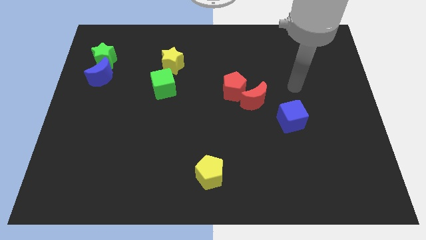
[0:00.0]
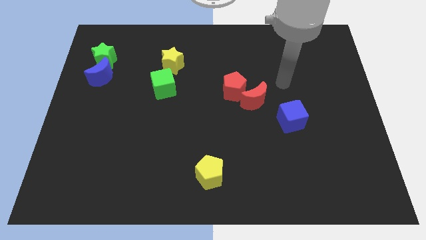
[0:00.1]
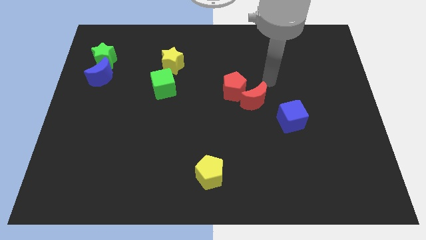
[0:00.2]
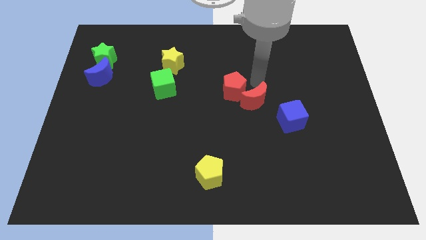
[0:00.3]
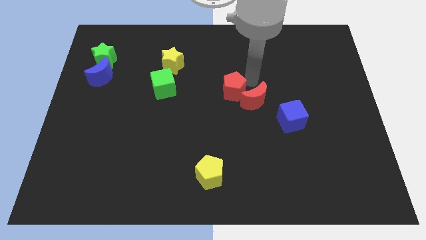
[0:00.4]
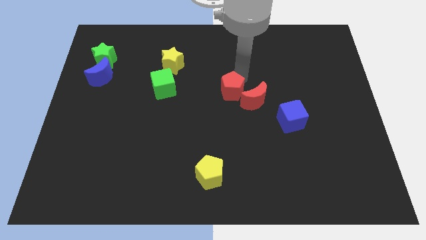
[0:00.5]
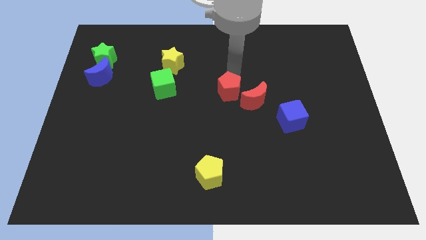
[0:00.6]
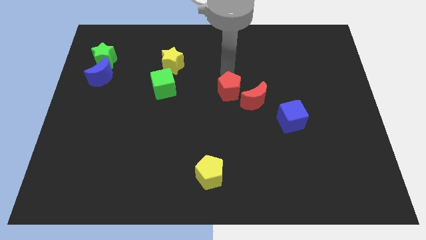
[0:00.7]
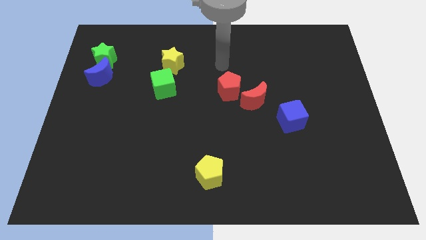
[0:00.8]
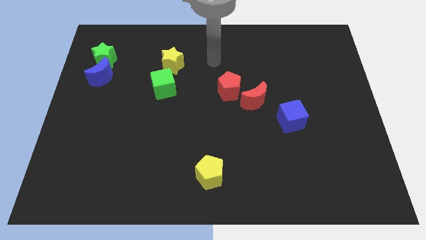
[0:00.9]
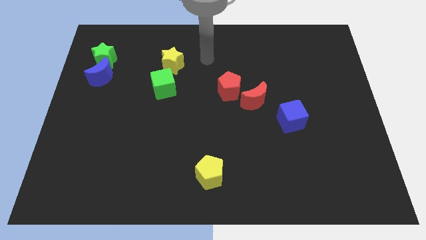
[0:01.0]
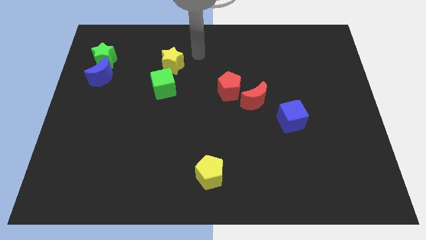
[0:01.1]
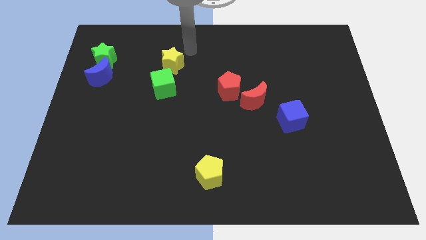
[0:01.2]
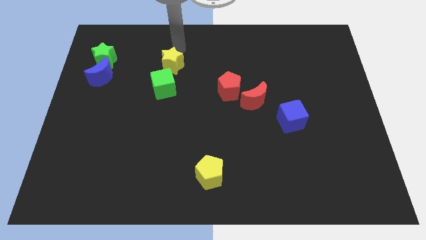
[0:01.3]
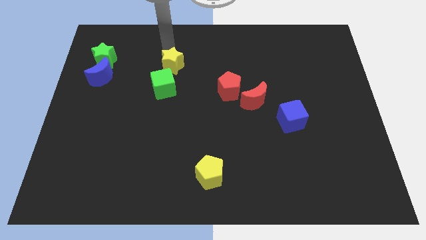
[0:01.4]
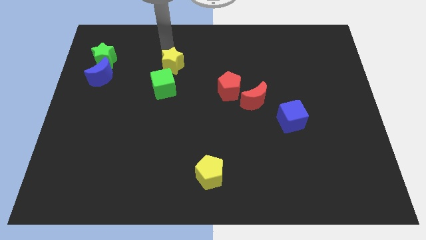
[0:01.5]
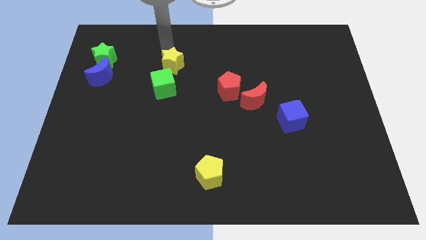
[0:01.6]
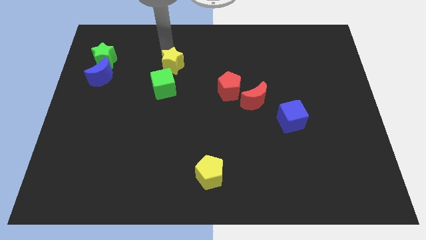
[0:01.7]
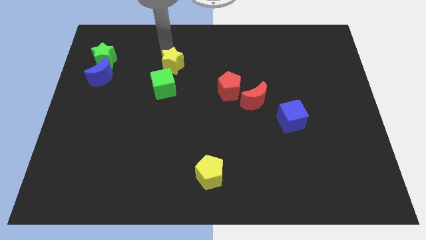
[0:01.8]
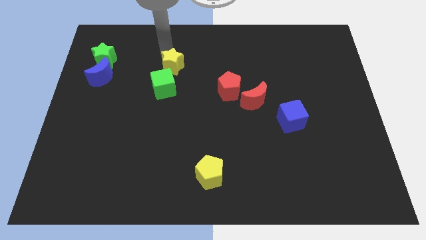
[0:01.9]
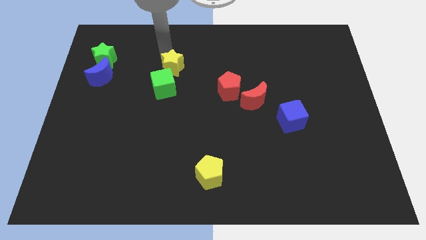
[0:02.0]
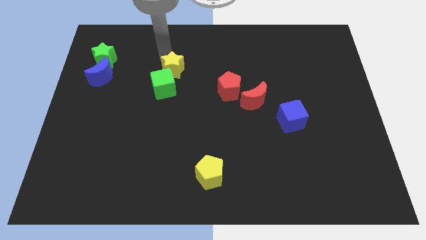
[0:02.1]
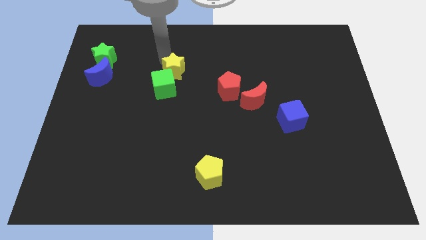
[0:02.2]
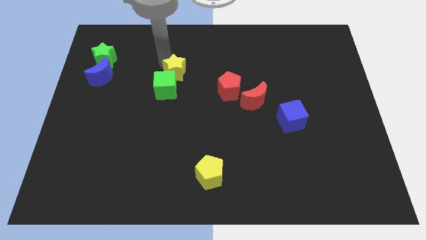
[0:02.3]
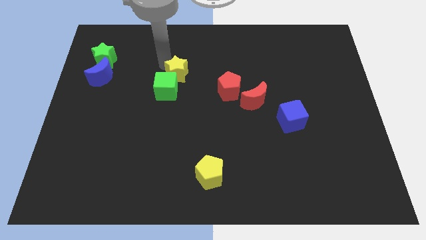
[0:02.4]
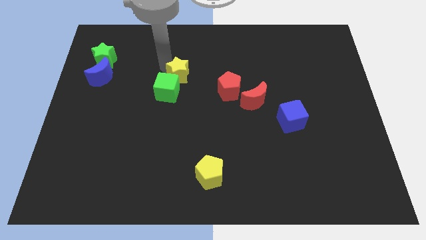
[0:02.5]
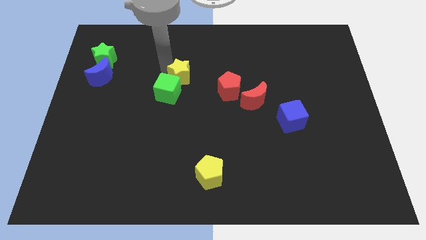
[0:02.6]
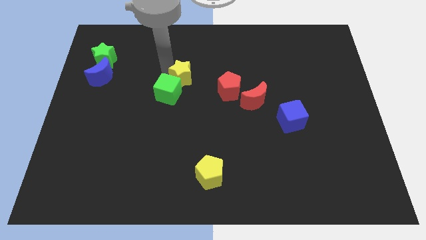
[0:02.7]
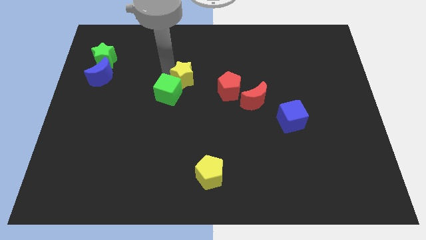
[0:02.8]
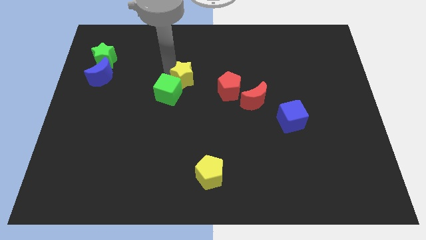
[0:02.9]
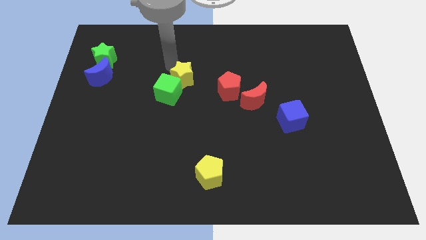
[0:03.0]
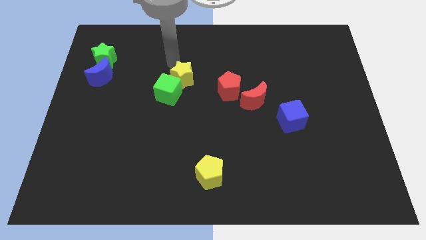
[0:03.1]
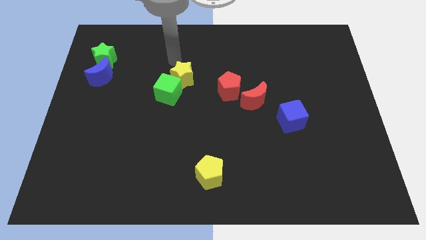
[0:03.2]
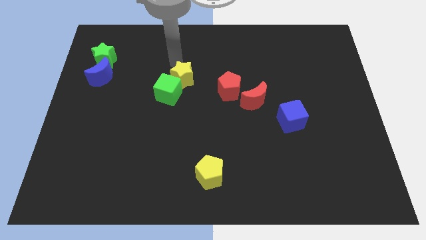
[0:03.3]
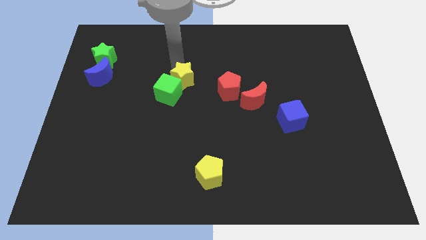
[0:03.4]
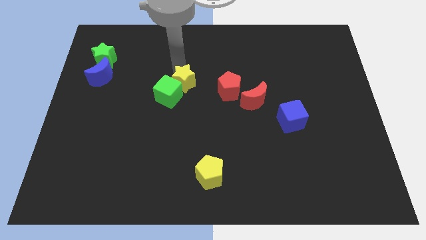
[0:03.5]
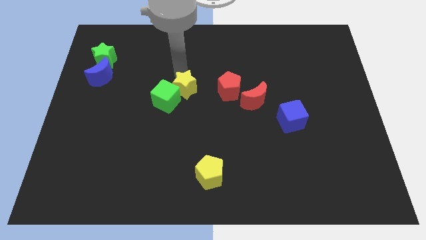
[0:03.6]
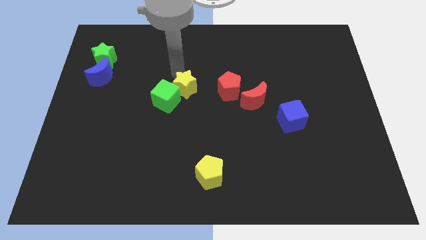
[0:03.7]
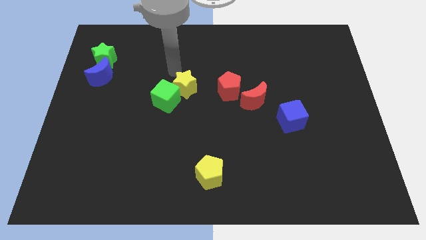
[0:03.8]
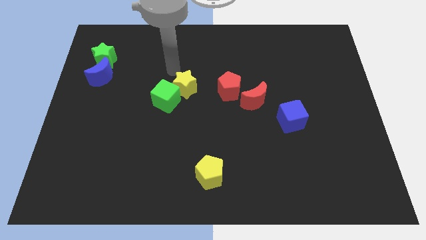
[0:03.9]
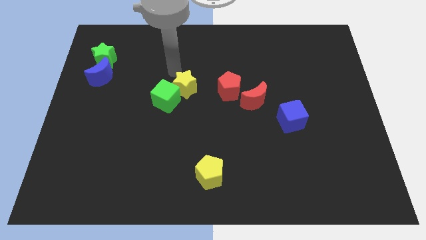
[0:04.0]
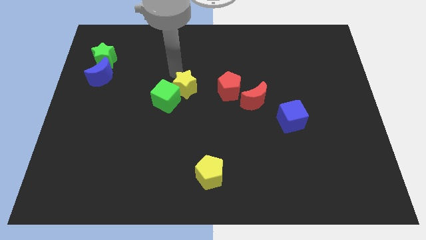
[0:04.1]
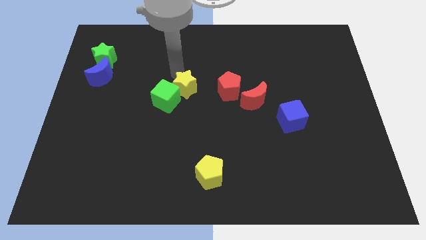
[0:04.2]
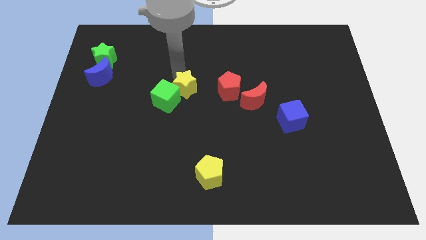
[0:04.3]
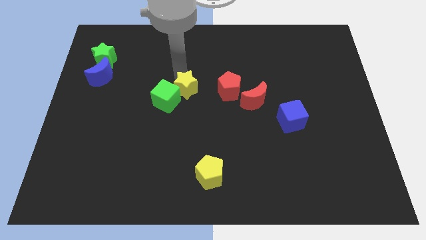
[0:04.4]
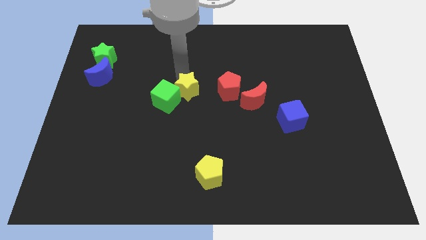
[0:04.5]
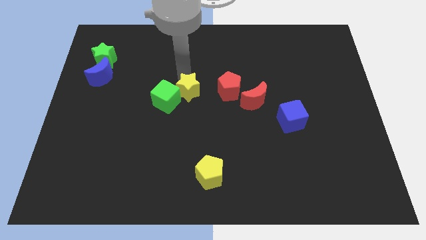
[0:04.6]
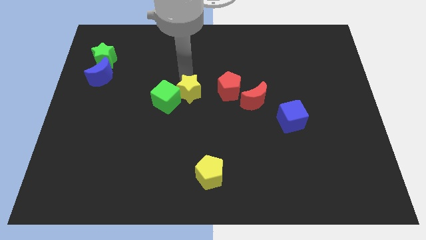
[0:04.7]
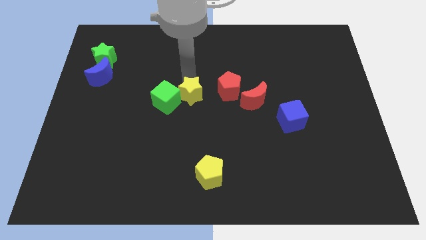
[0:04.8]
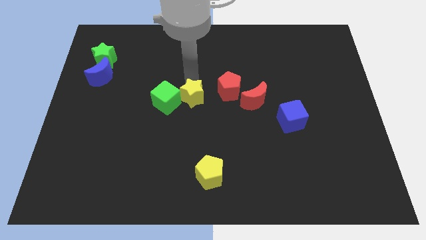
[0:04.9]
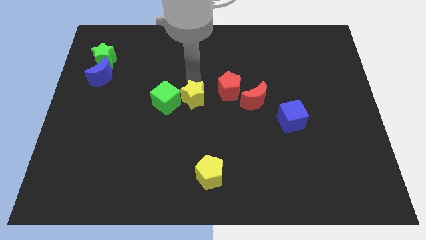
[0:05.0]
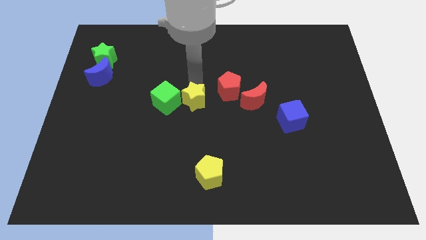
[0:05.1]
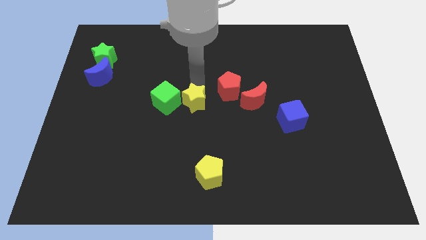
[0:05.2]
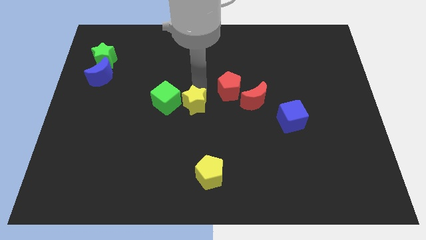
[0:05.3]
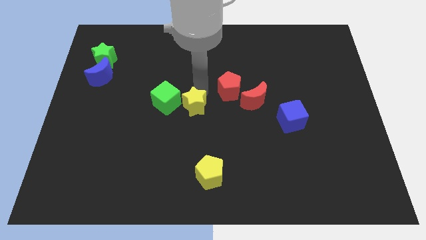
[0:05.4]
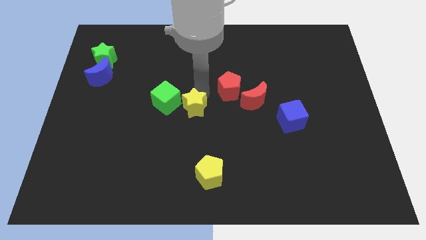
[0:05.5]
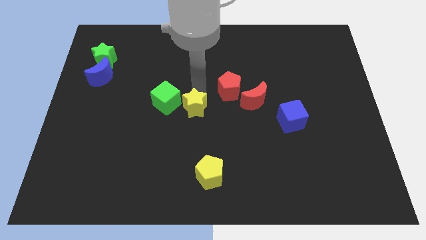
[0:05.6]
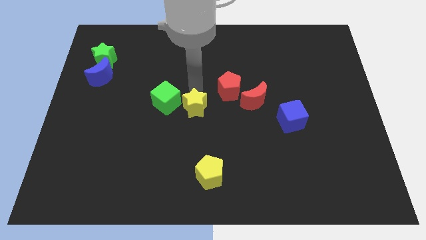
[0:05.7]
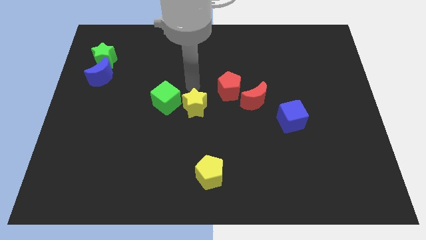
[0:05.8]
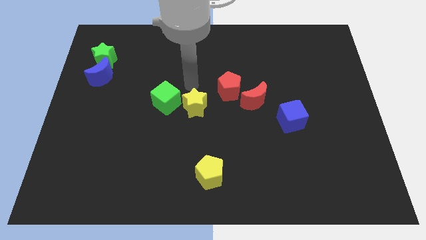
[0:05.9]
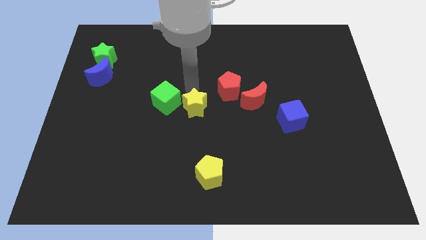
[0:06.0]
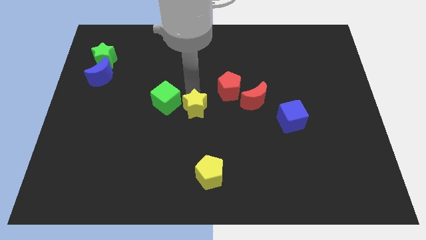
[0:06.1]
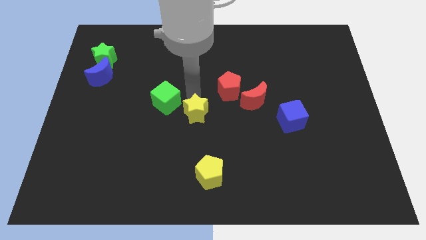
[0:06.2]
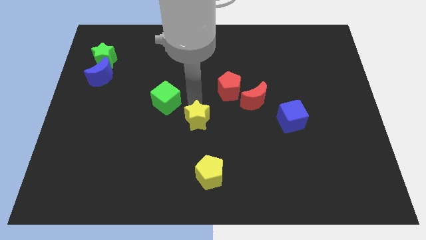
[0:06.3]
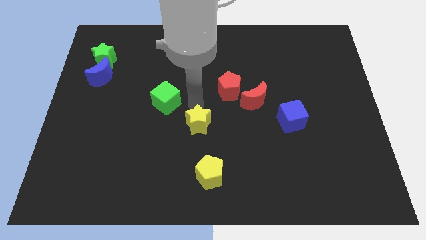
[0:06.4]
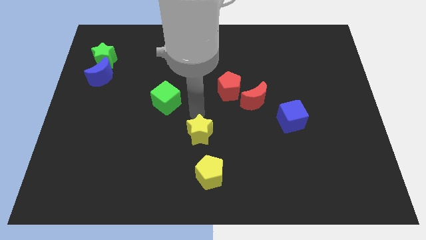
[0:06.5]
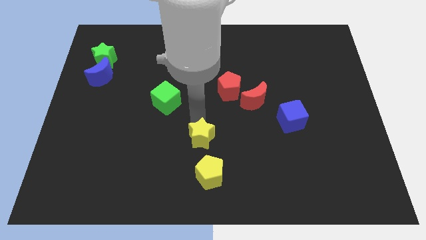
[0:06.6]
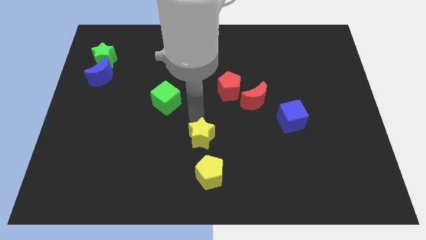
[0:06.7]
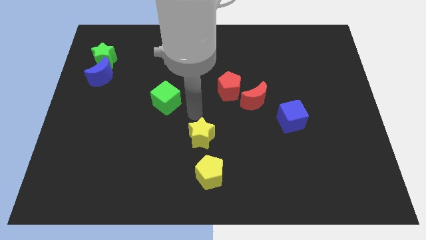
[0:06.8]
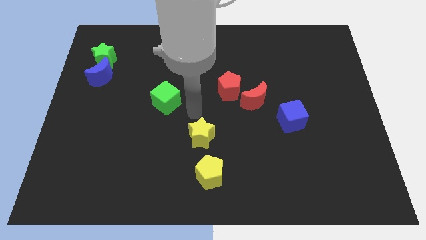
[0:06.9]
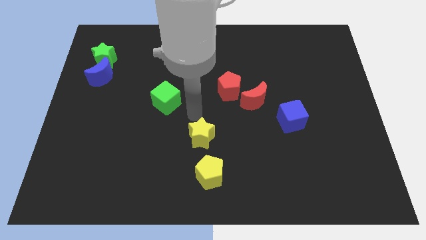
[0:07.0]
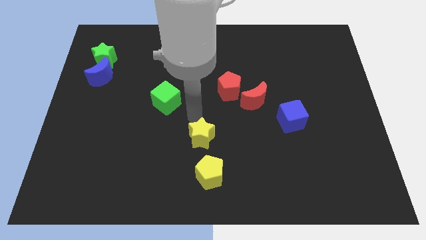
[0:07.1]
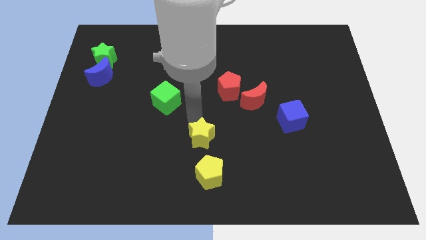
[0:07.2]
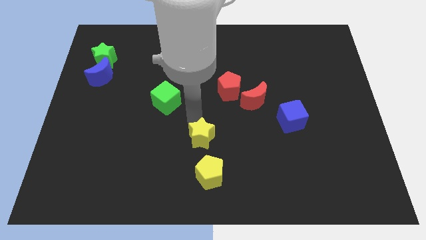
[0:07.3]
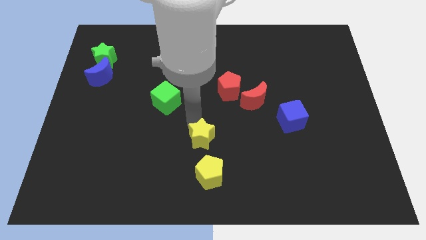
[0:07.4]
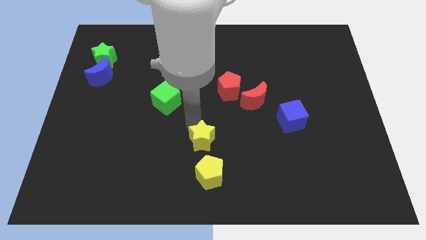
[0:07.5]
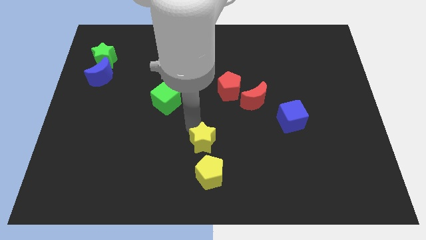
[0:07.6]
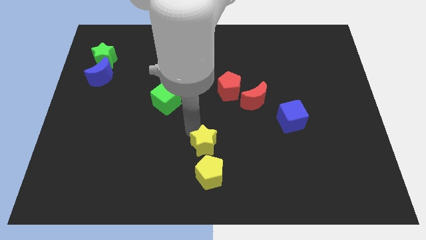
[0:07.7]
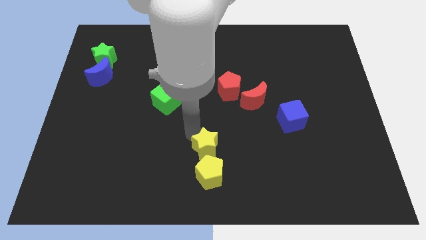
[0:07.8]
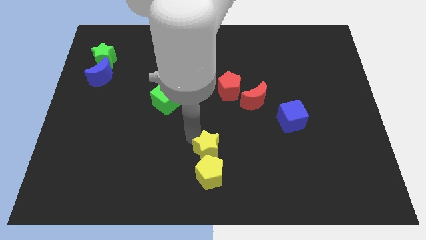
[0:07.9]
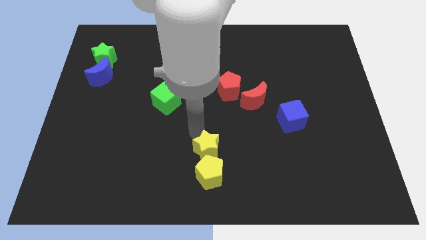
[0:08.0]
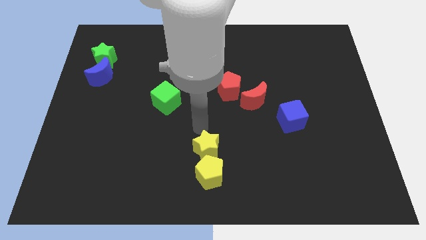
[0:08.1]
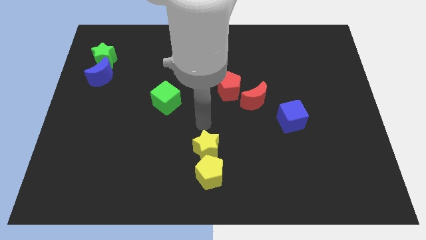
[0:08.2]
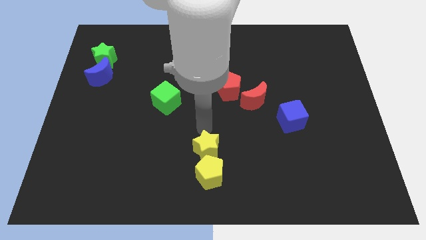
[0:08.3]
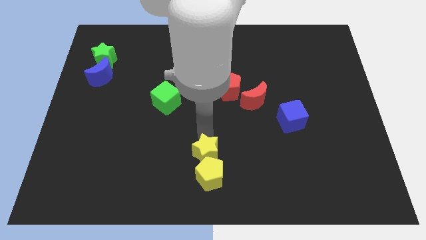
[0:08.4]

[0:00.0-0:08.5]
move the yellow star close to the yellow pentagon
